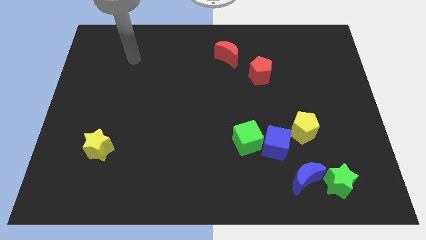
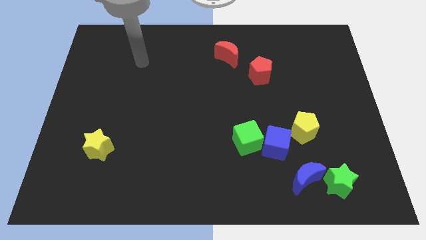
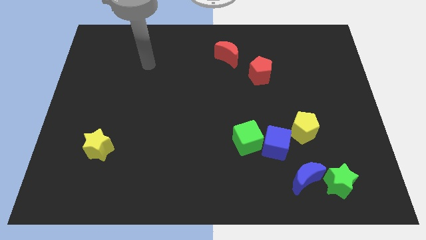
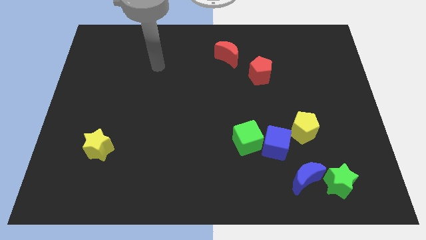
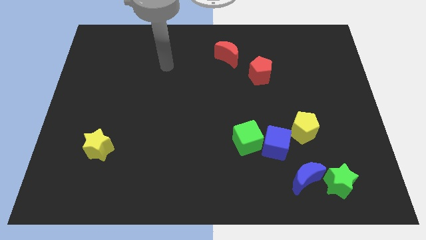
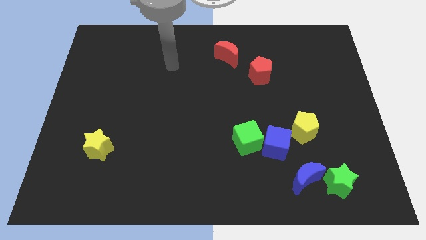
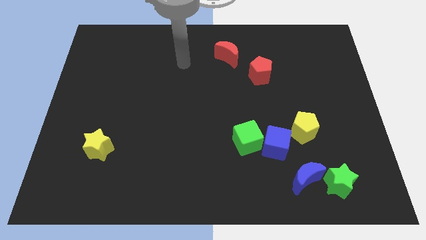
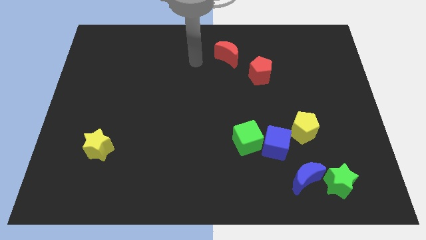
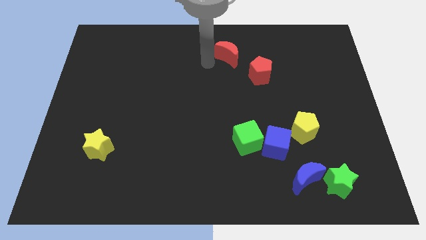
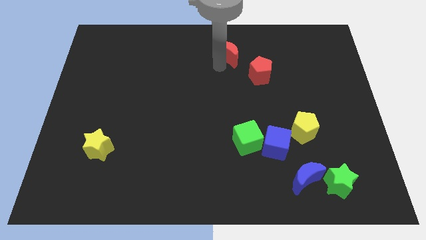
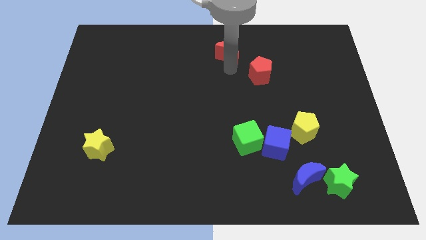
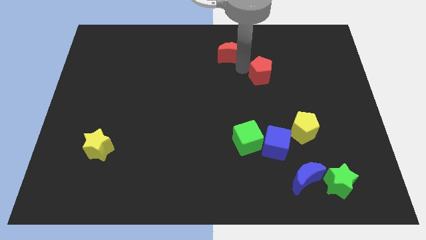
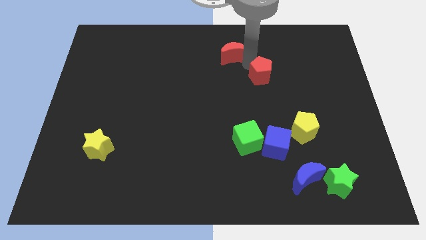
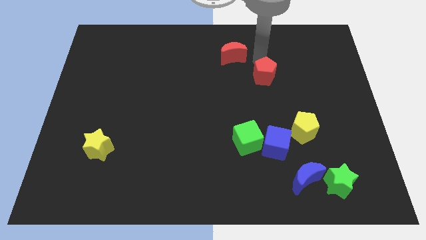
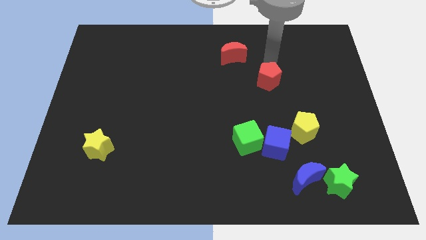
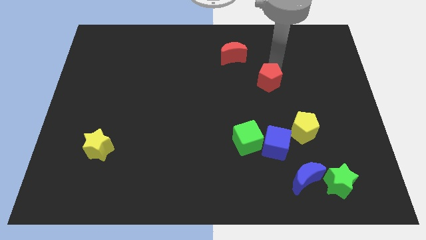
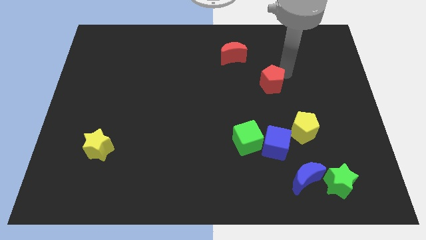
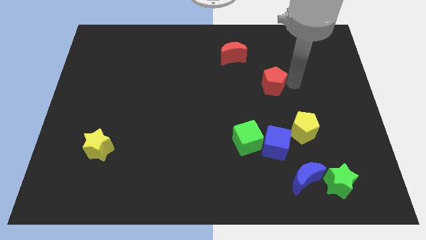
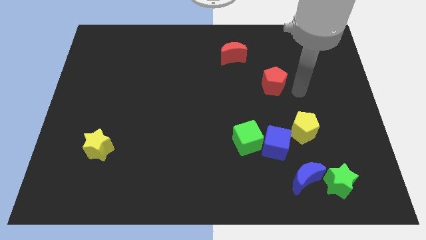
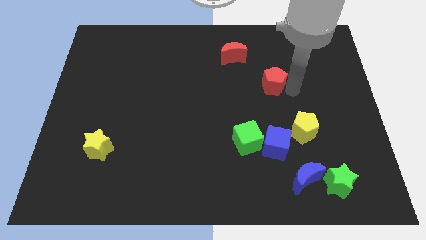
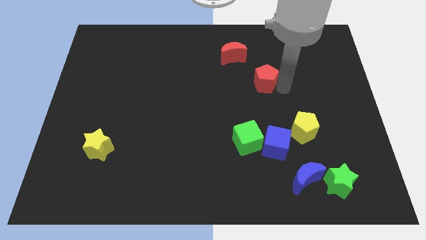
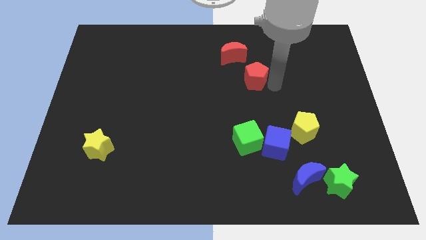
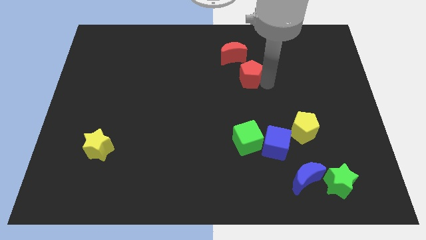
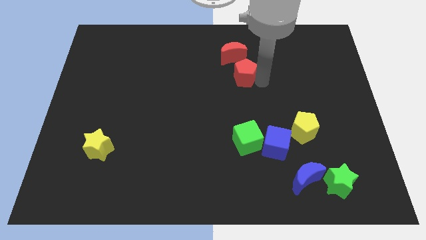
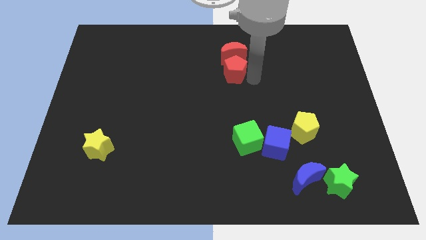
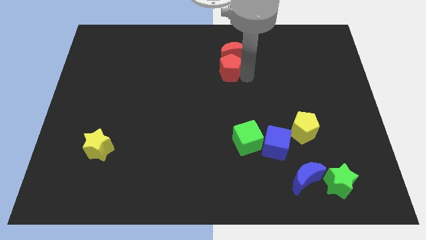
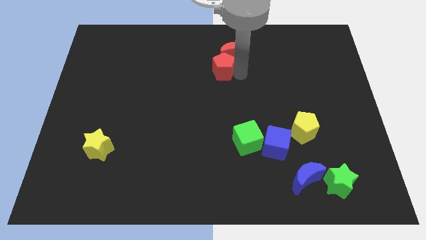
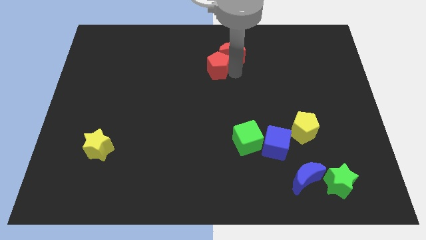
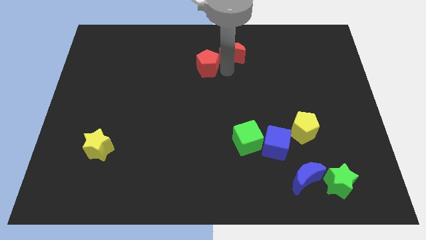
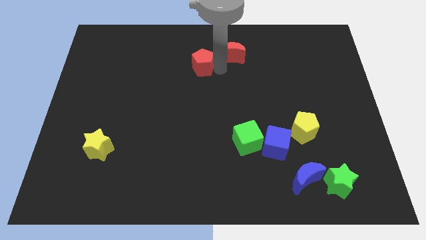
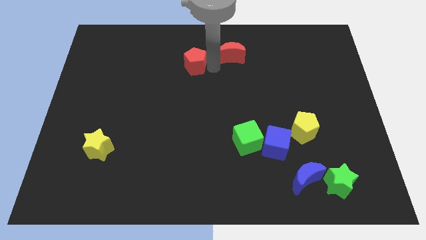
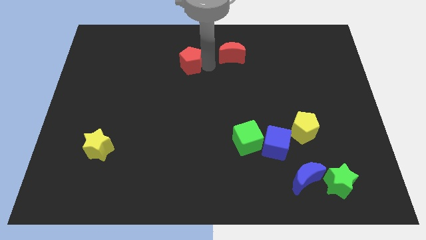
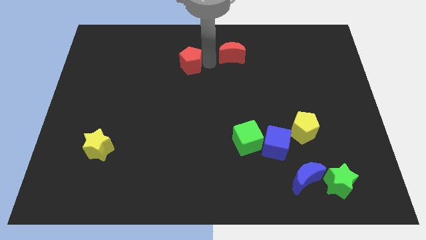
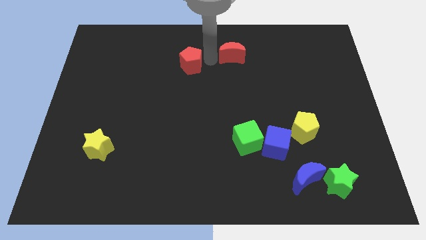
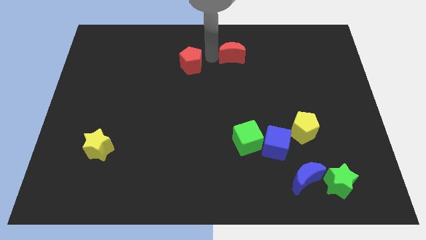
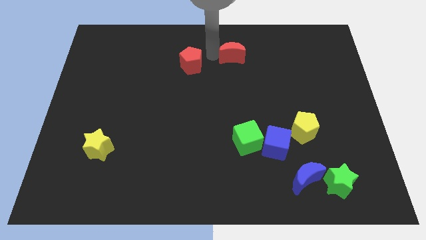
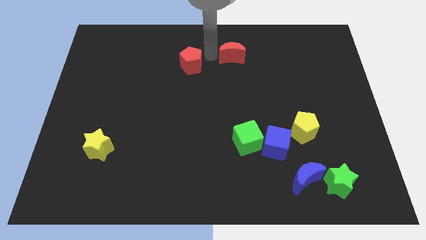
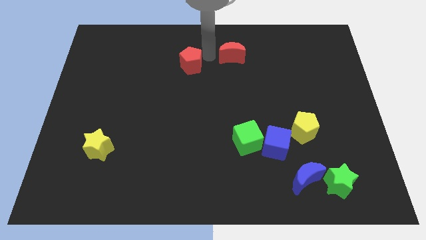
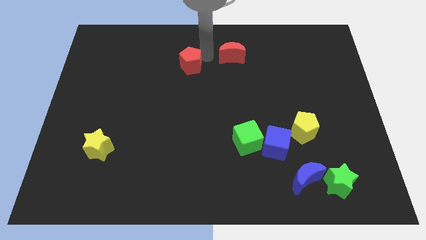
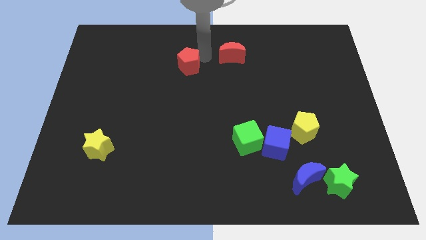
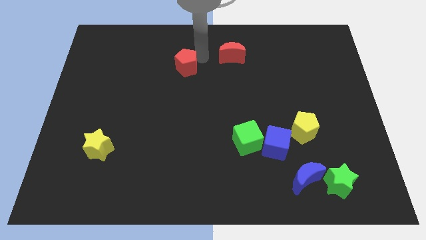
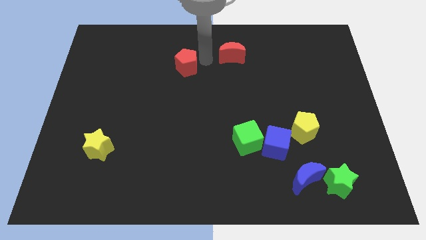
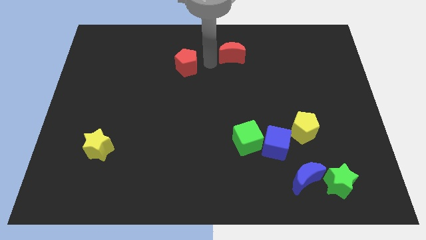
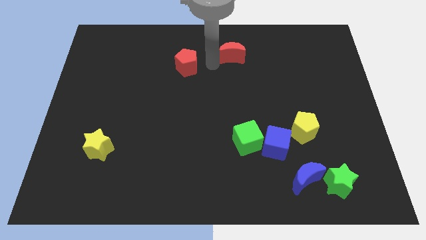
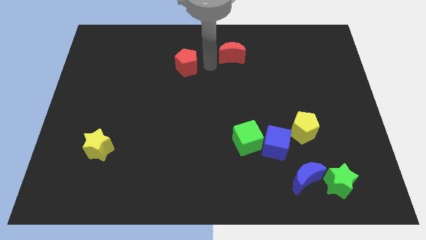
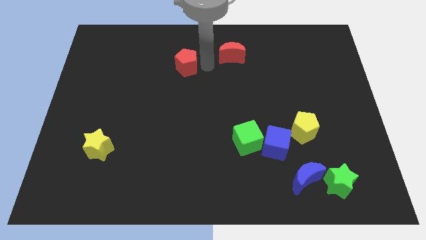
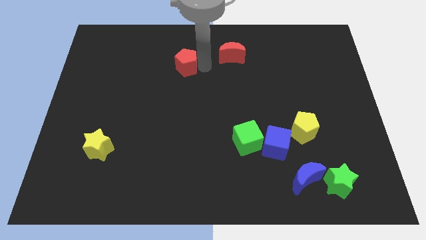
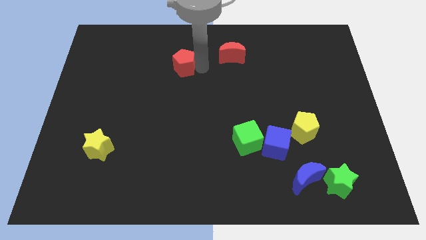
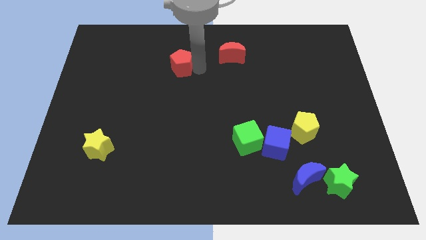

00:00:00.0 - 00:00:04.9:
move the red pentagon to the left

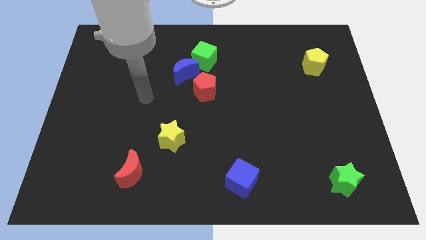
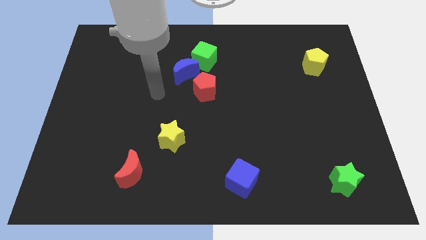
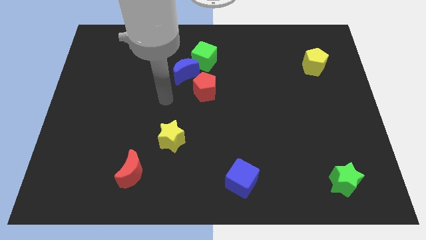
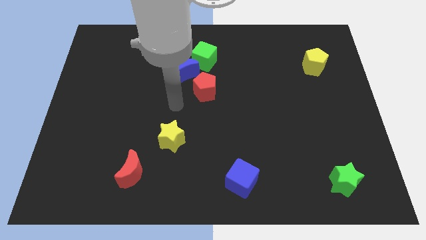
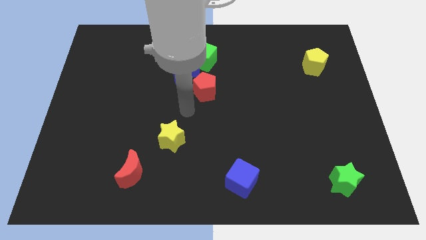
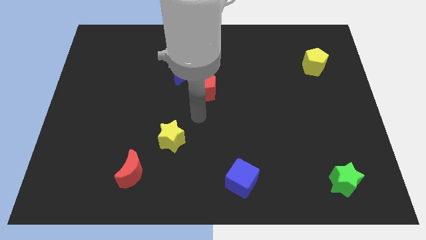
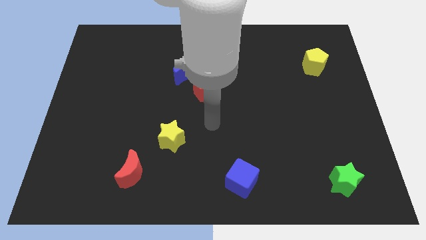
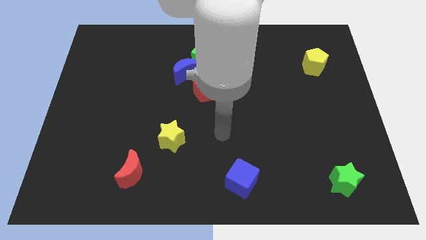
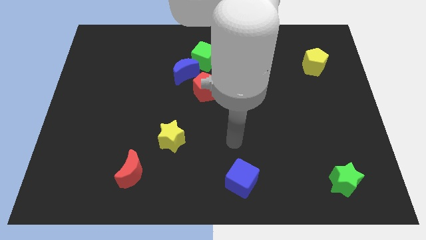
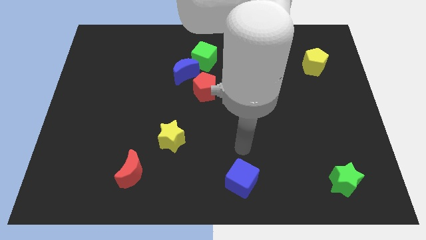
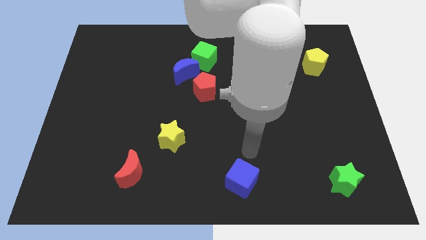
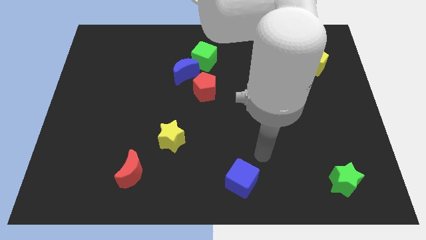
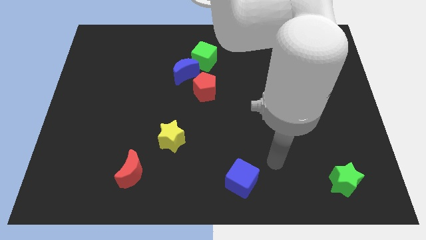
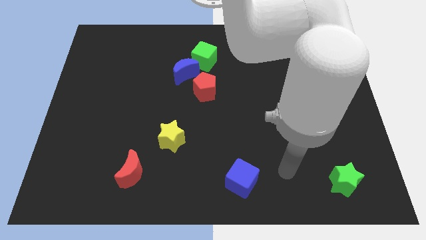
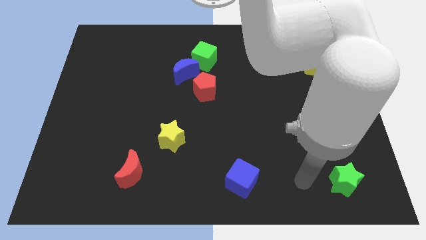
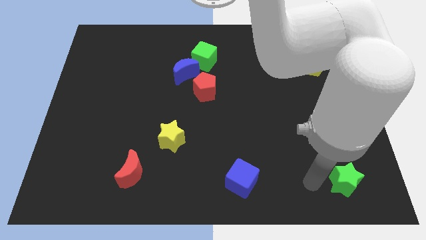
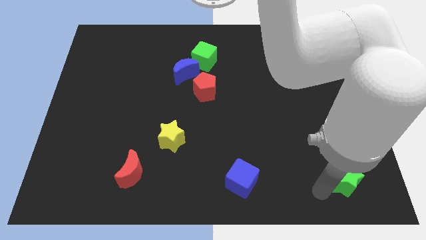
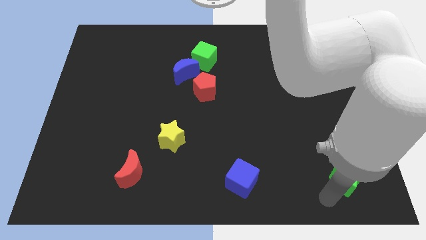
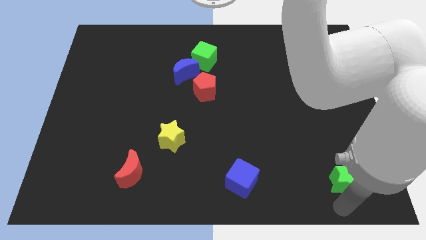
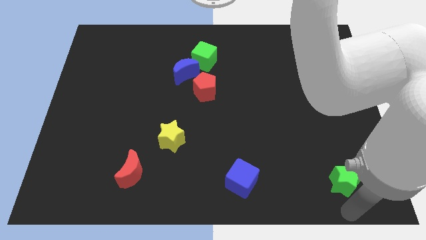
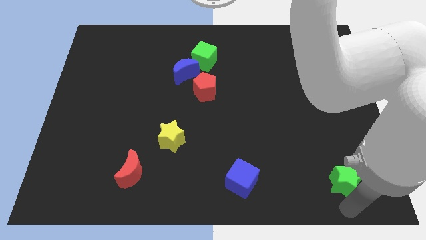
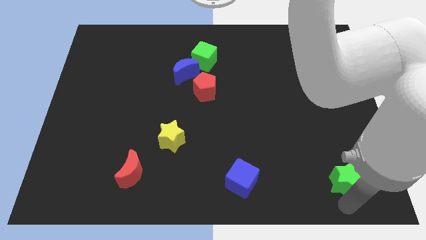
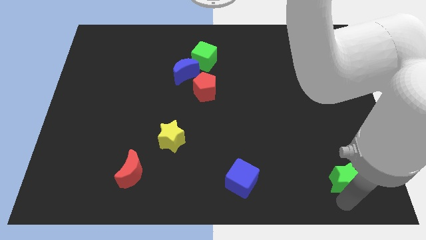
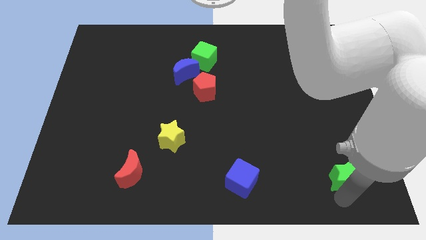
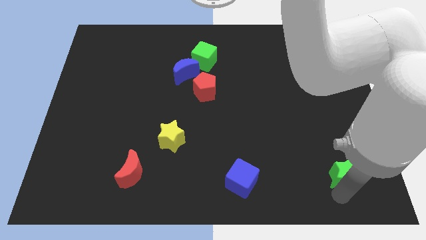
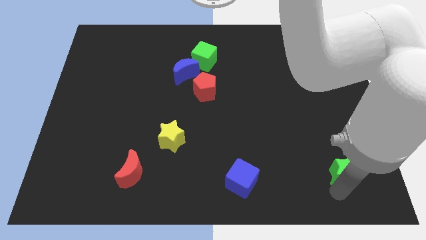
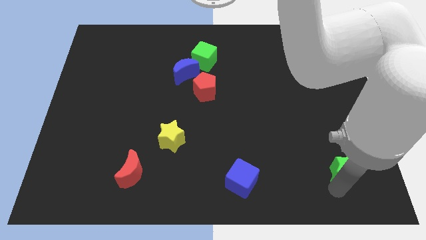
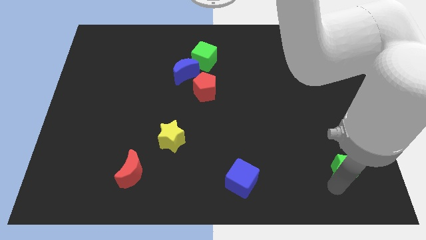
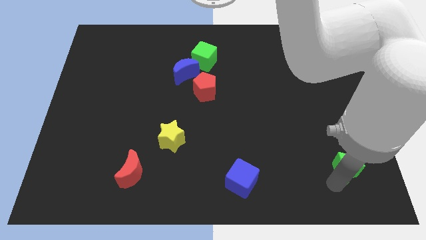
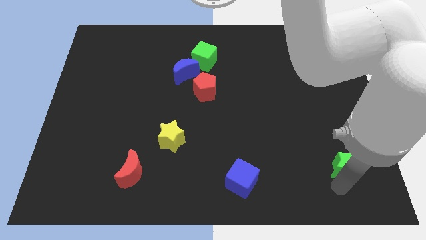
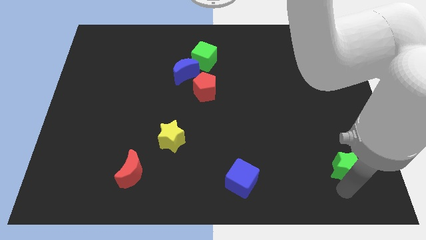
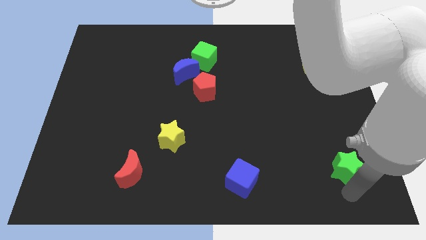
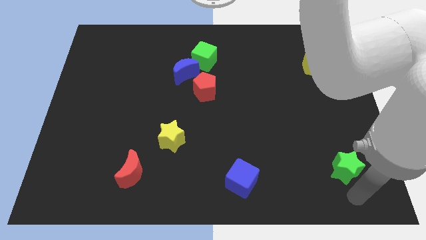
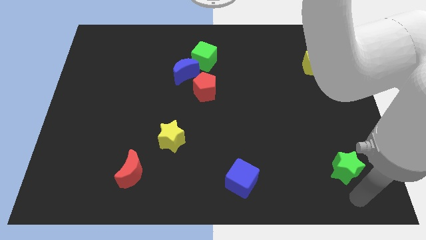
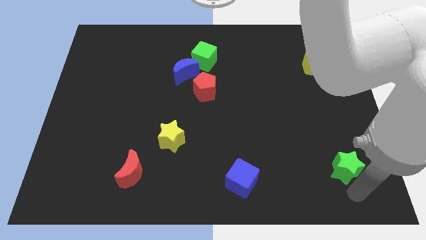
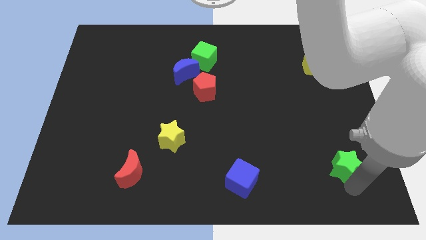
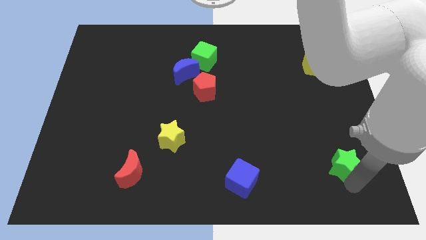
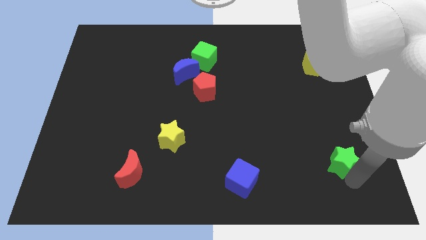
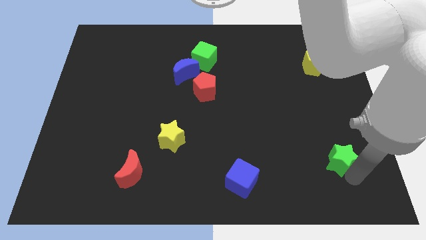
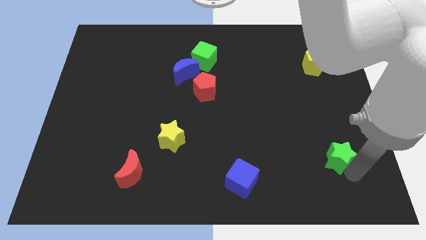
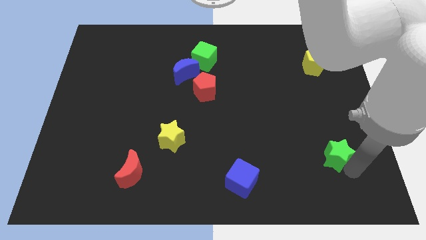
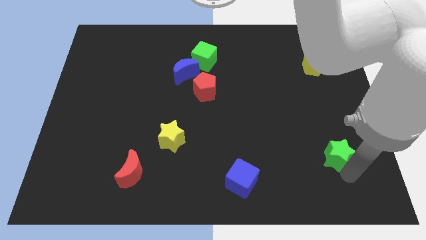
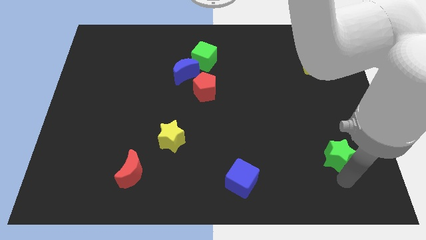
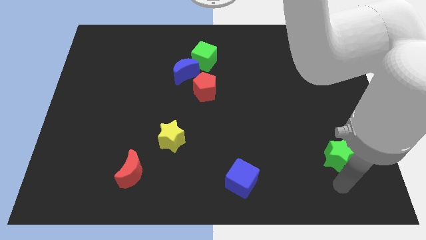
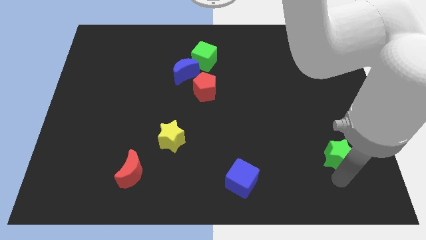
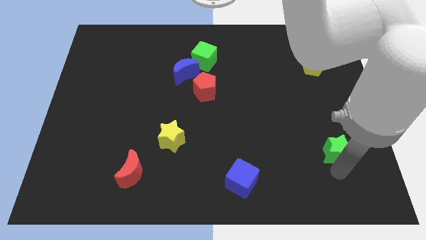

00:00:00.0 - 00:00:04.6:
push the green star somewhat up
